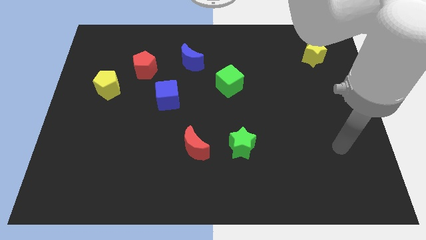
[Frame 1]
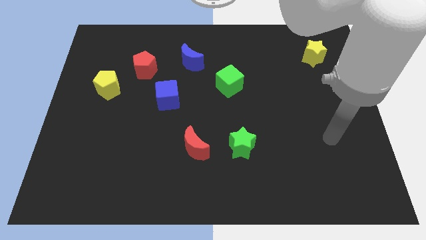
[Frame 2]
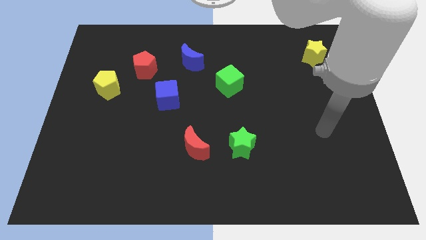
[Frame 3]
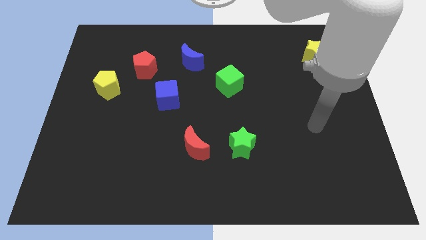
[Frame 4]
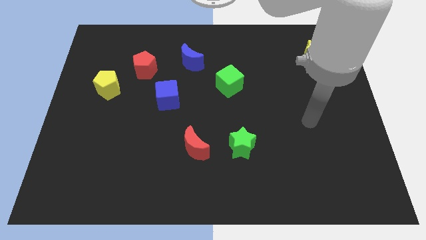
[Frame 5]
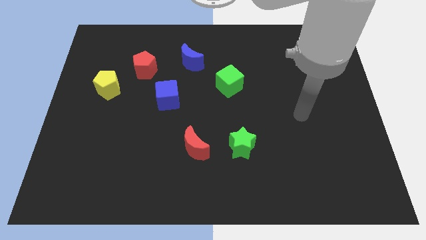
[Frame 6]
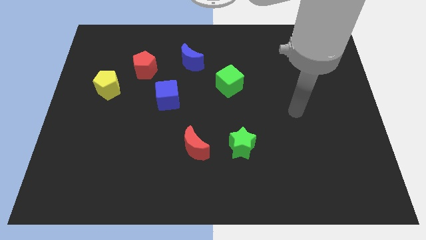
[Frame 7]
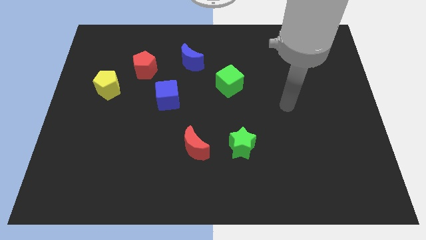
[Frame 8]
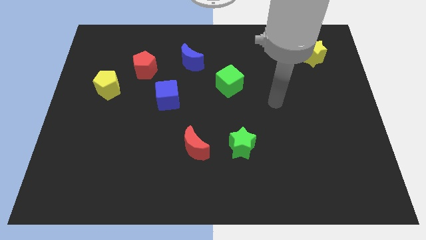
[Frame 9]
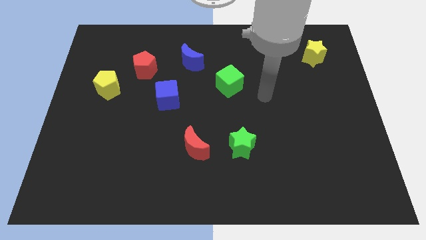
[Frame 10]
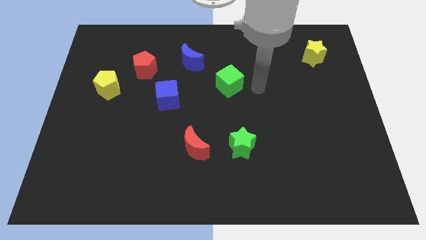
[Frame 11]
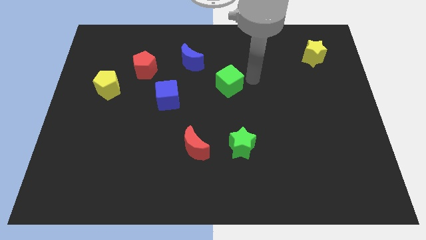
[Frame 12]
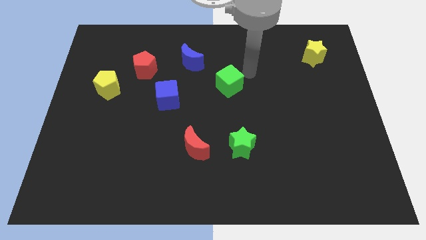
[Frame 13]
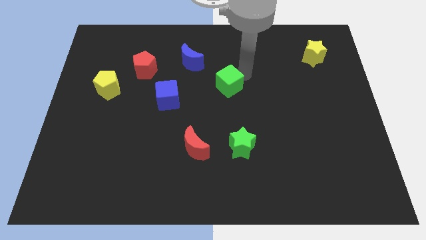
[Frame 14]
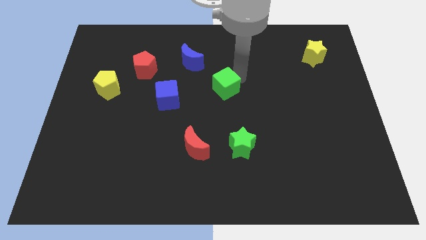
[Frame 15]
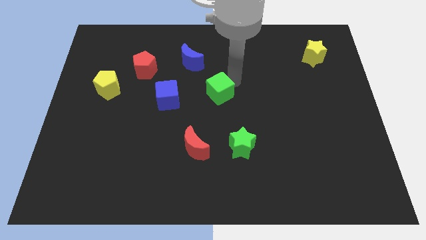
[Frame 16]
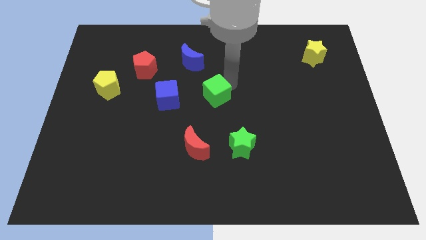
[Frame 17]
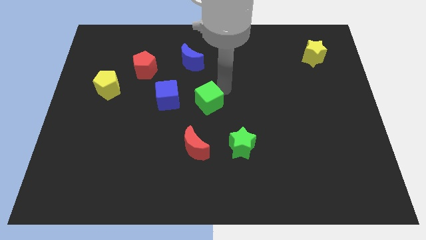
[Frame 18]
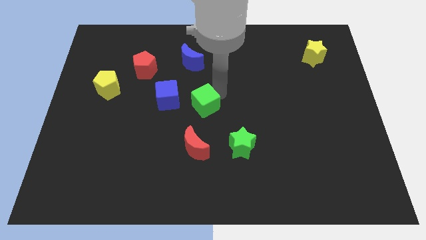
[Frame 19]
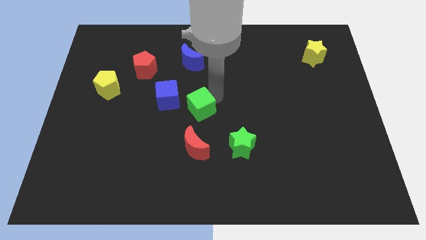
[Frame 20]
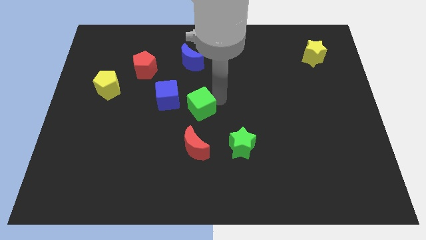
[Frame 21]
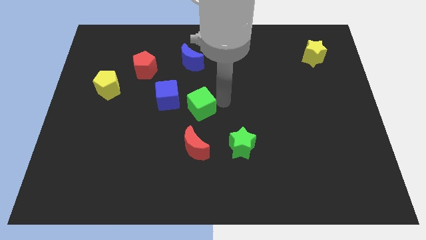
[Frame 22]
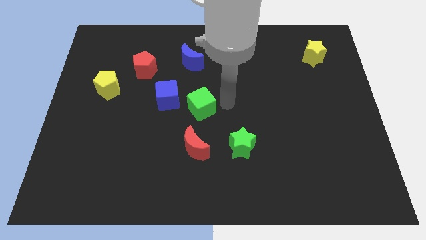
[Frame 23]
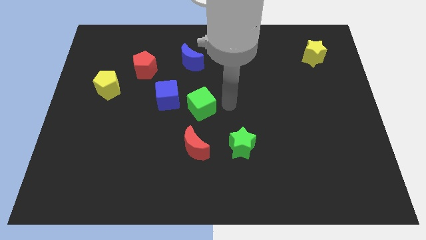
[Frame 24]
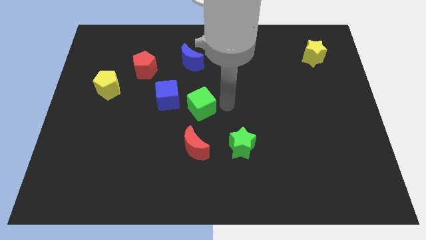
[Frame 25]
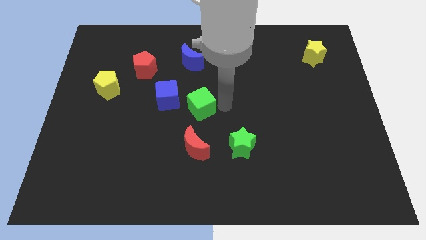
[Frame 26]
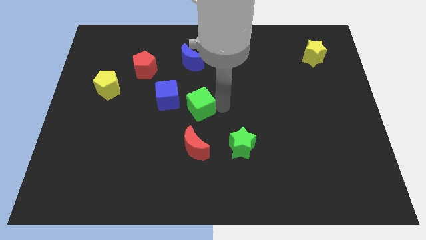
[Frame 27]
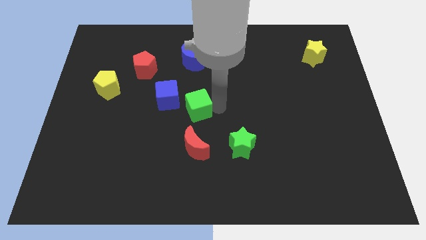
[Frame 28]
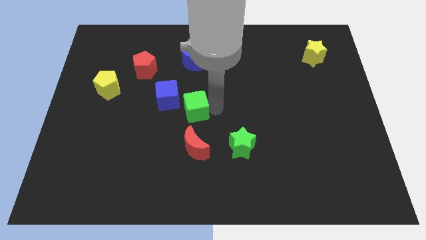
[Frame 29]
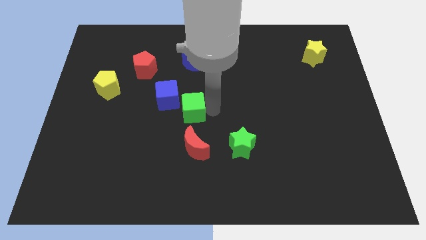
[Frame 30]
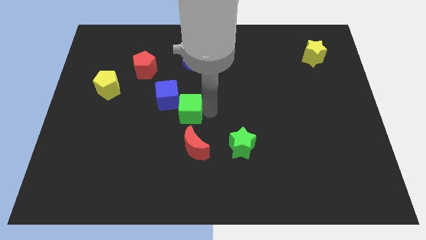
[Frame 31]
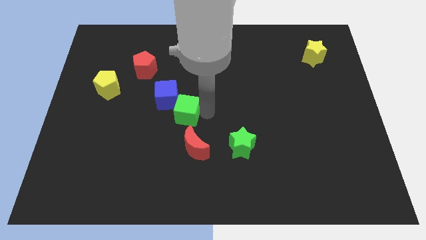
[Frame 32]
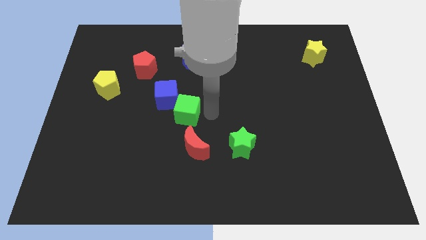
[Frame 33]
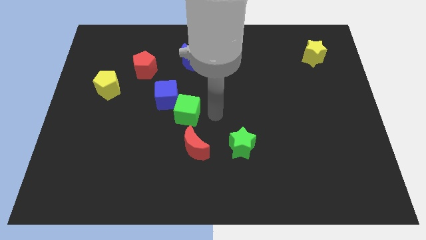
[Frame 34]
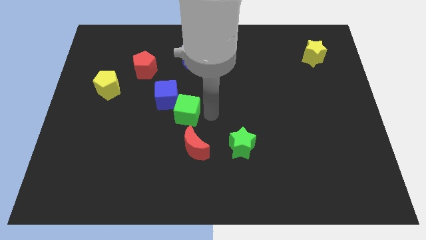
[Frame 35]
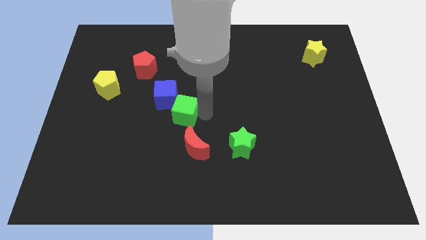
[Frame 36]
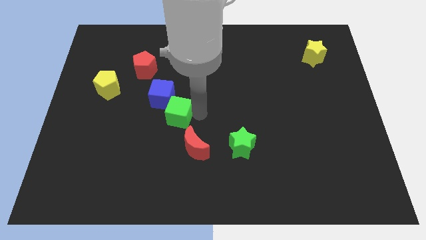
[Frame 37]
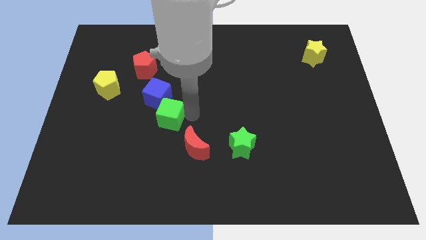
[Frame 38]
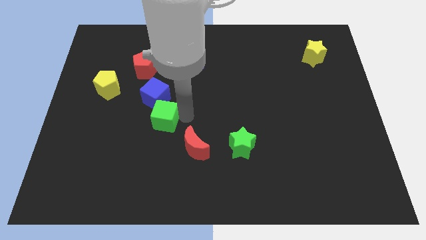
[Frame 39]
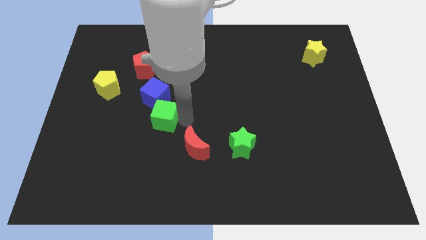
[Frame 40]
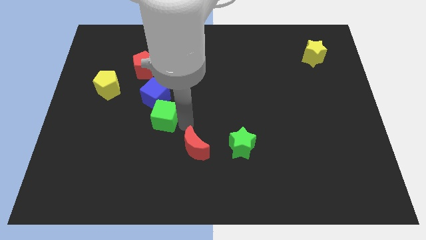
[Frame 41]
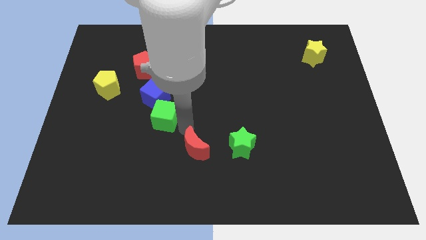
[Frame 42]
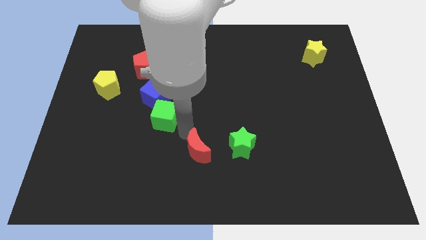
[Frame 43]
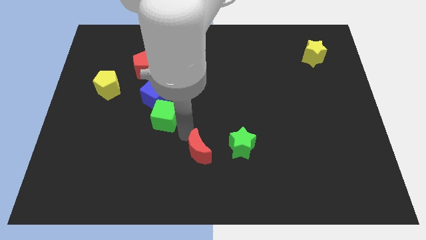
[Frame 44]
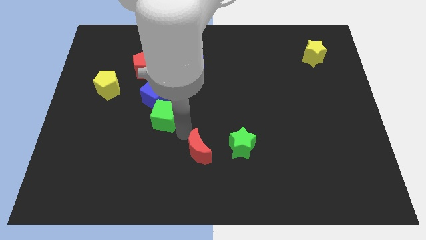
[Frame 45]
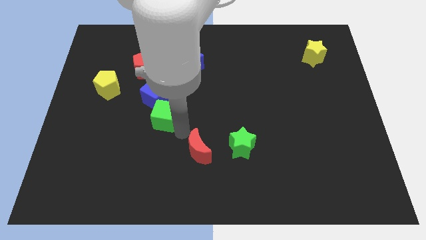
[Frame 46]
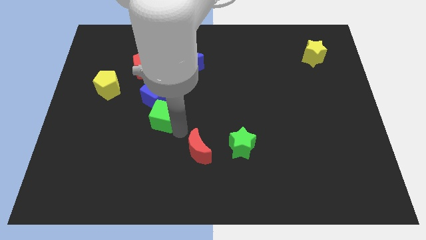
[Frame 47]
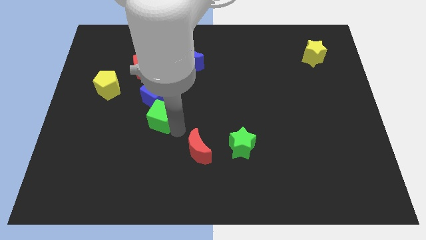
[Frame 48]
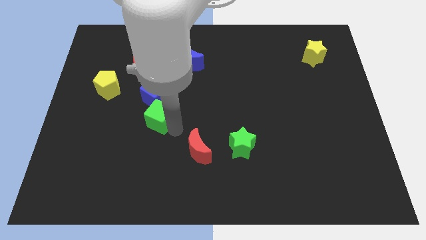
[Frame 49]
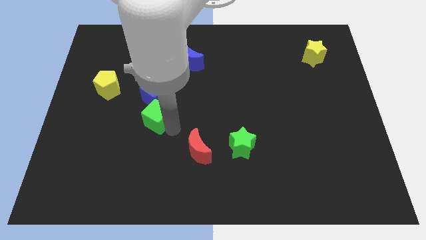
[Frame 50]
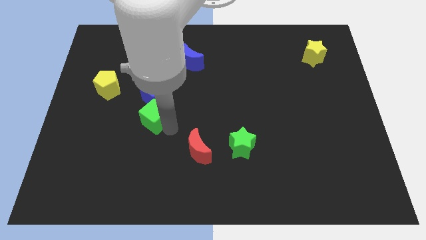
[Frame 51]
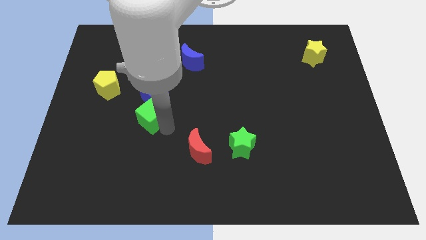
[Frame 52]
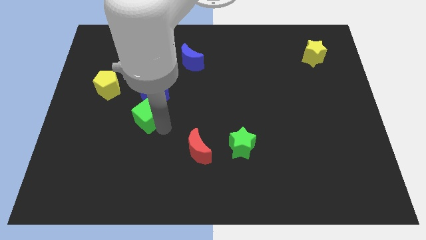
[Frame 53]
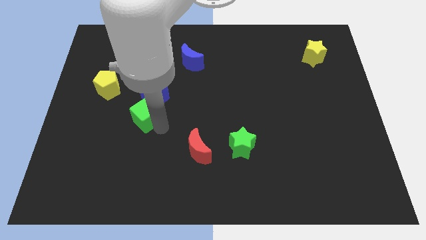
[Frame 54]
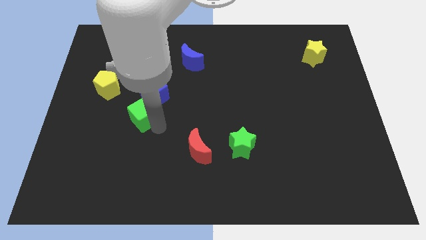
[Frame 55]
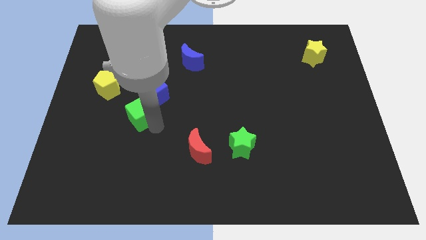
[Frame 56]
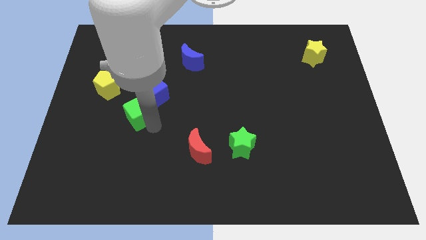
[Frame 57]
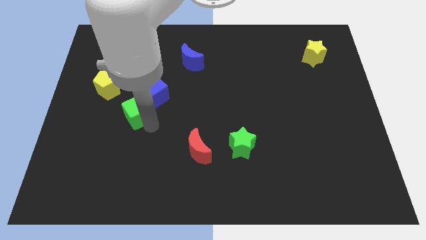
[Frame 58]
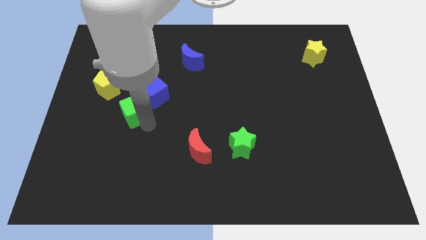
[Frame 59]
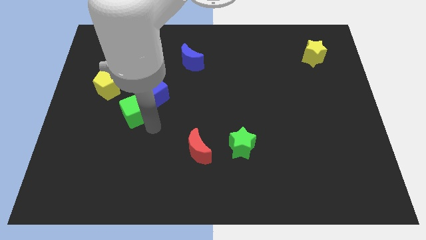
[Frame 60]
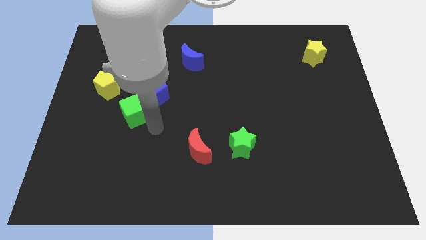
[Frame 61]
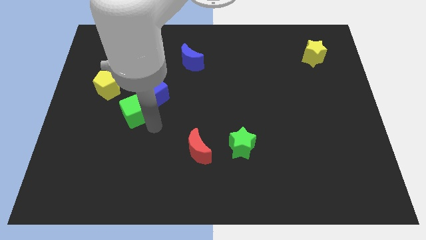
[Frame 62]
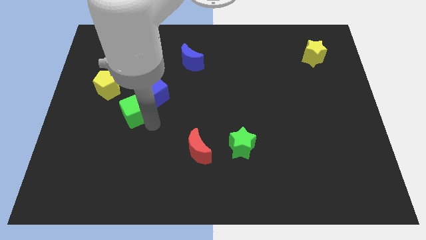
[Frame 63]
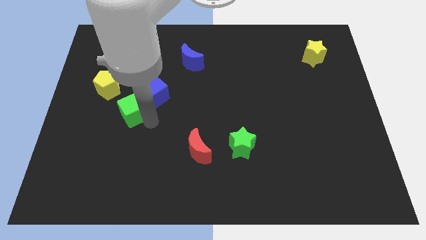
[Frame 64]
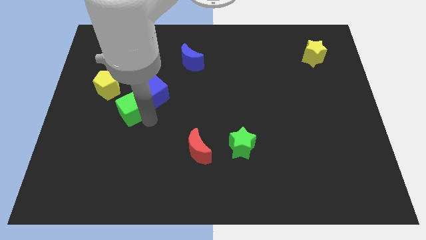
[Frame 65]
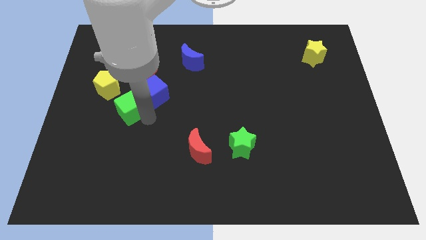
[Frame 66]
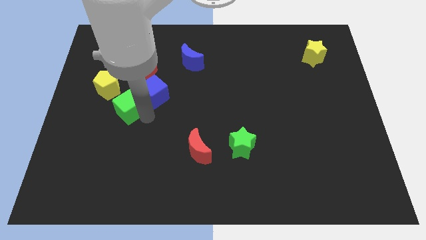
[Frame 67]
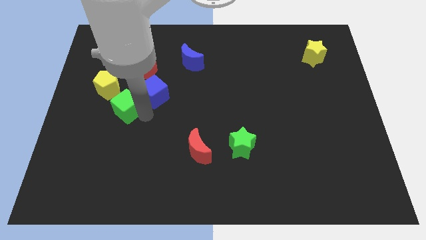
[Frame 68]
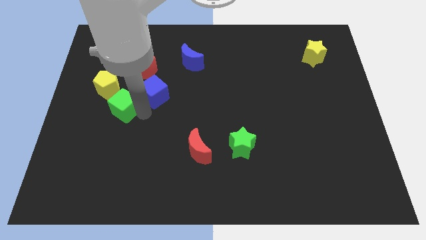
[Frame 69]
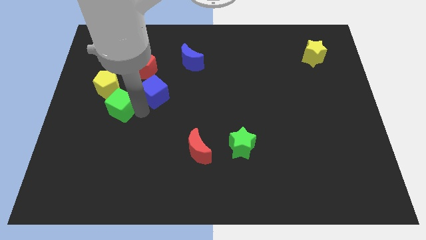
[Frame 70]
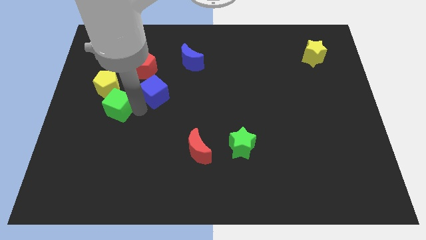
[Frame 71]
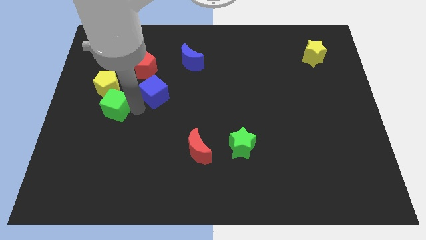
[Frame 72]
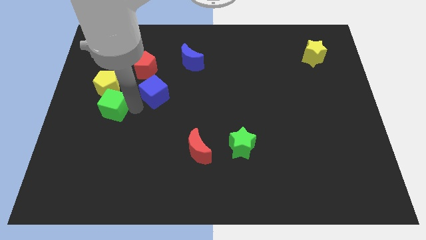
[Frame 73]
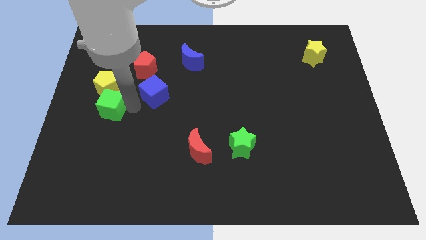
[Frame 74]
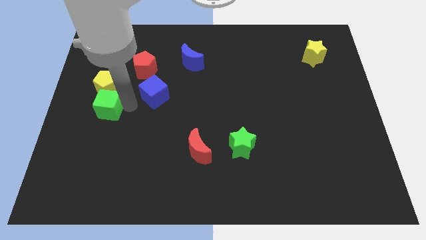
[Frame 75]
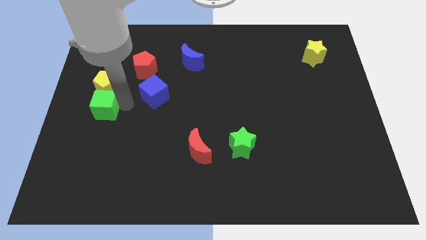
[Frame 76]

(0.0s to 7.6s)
move the green cube to the center left
